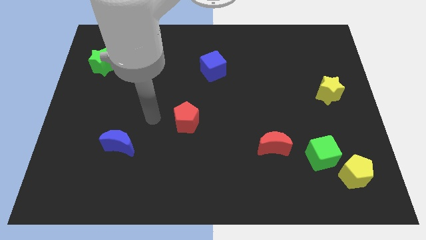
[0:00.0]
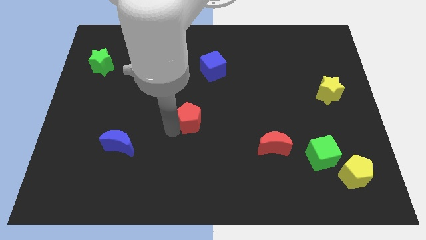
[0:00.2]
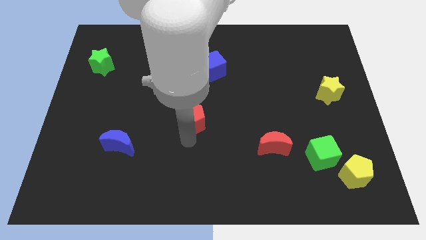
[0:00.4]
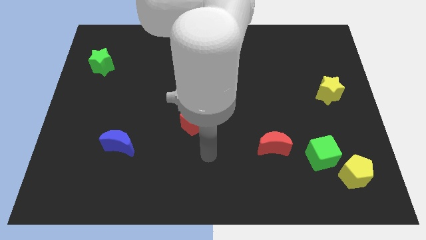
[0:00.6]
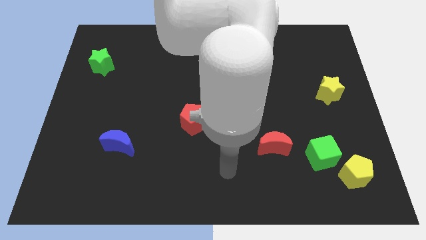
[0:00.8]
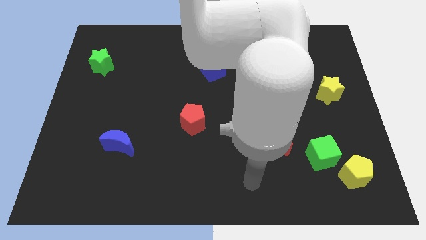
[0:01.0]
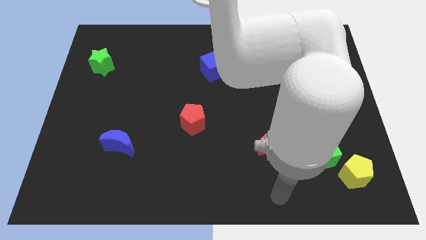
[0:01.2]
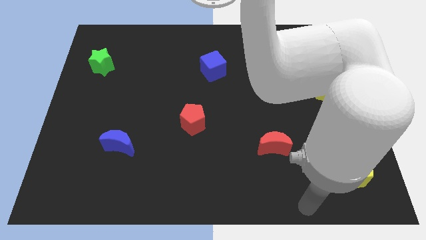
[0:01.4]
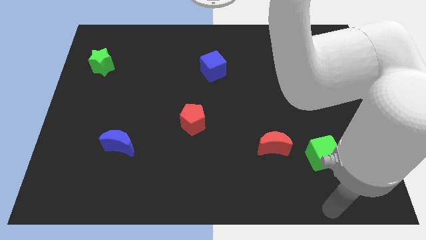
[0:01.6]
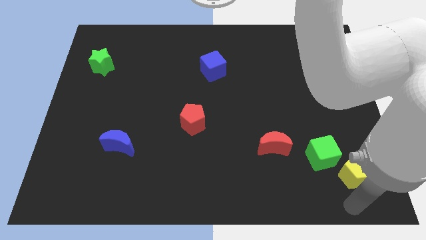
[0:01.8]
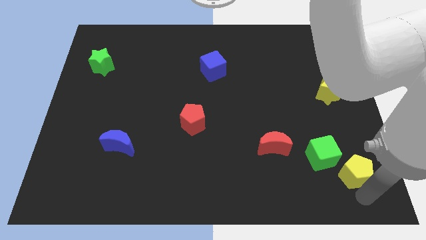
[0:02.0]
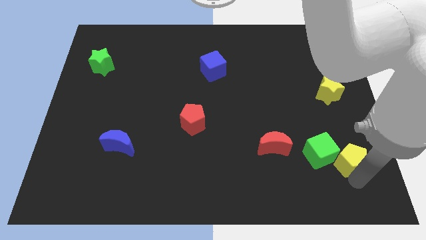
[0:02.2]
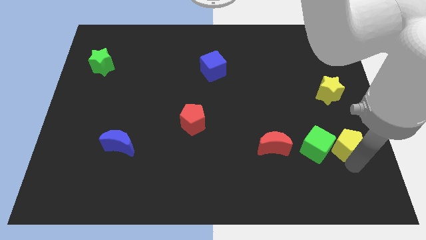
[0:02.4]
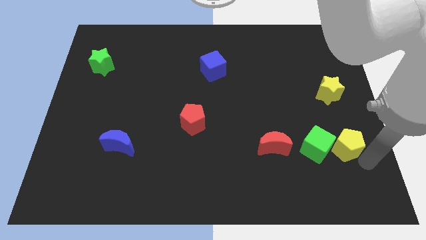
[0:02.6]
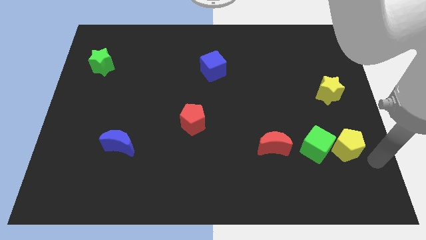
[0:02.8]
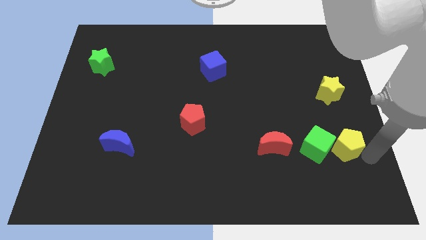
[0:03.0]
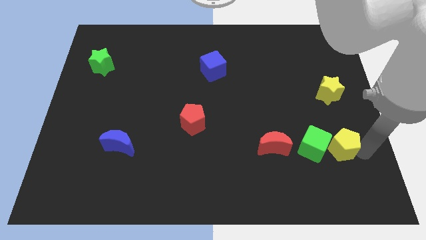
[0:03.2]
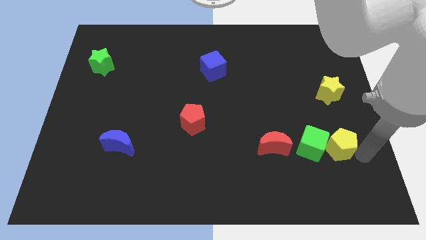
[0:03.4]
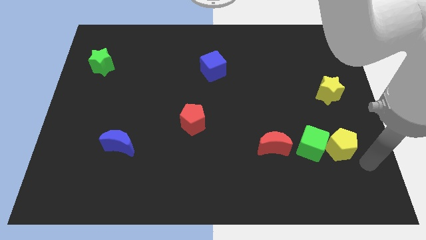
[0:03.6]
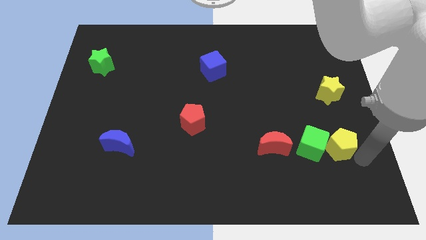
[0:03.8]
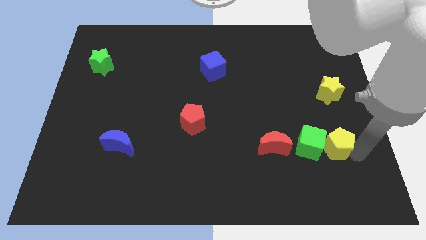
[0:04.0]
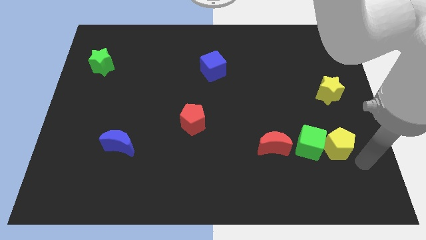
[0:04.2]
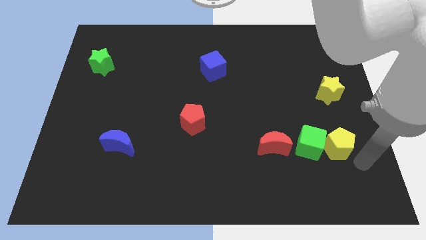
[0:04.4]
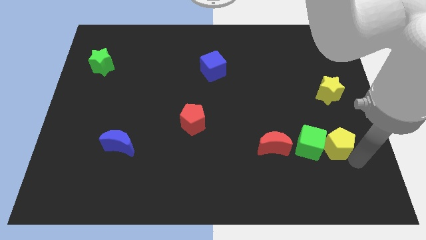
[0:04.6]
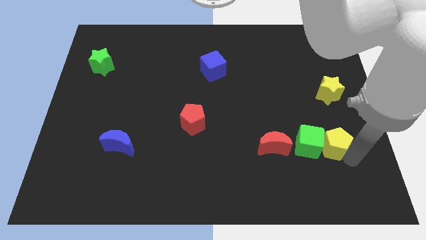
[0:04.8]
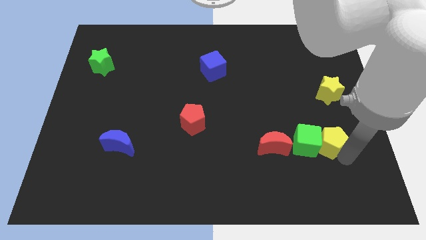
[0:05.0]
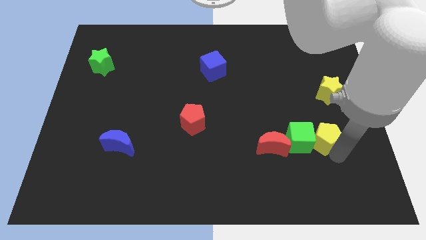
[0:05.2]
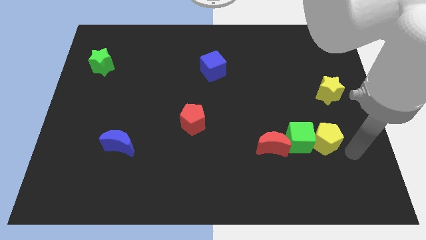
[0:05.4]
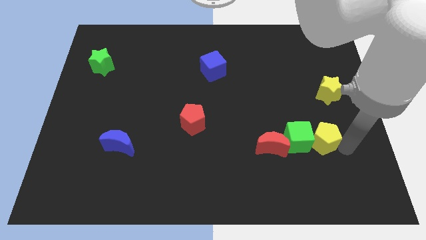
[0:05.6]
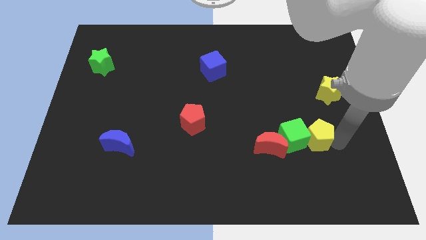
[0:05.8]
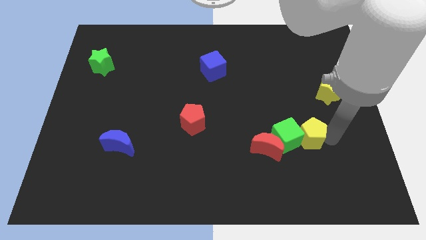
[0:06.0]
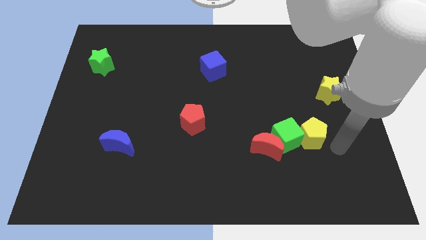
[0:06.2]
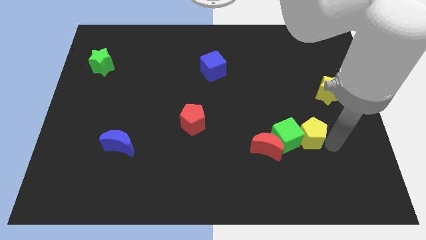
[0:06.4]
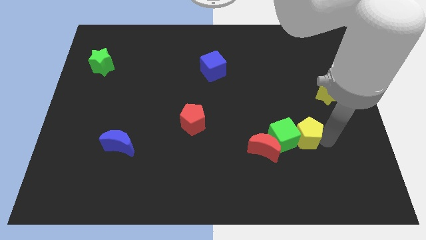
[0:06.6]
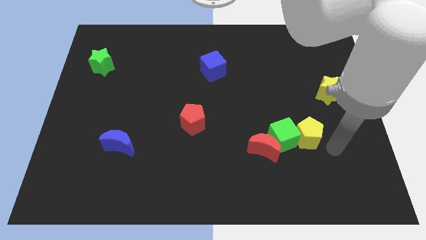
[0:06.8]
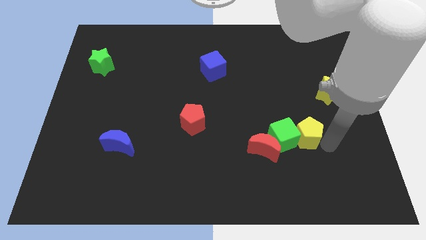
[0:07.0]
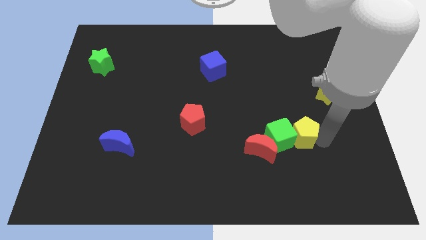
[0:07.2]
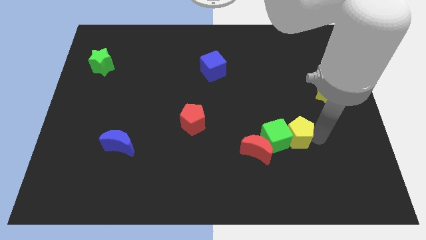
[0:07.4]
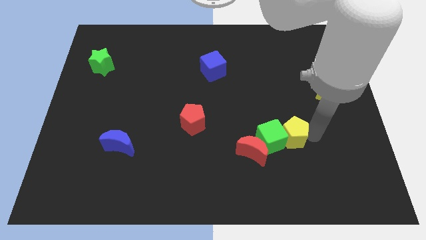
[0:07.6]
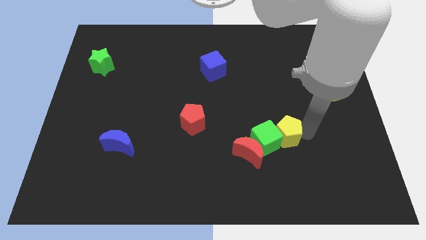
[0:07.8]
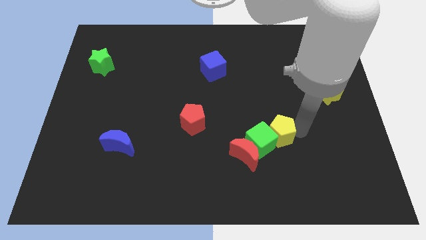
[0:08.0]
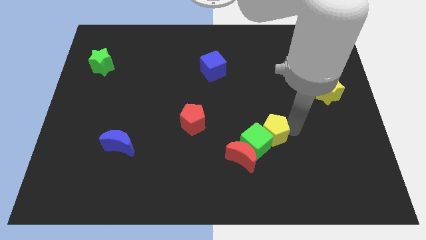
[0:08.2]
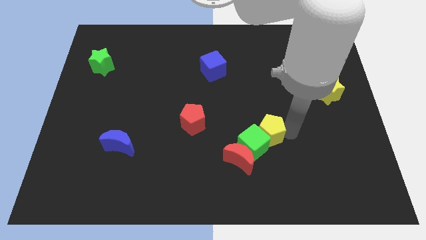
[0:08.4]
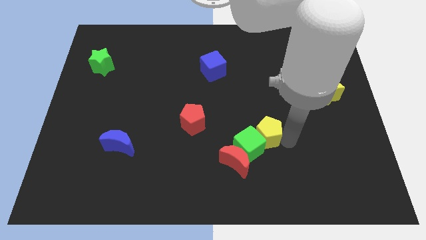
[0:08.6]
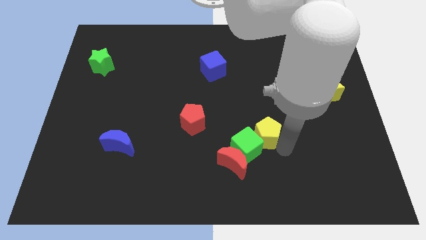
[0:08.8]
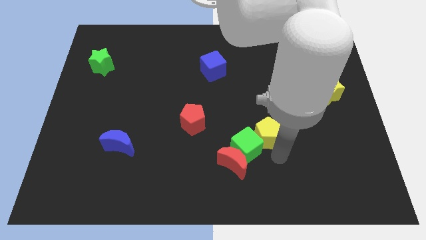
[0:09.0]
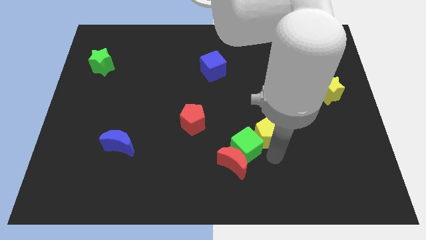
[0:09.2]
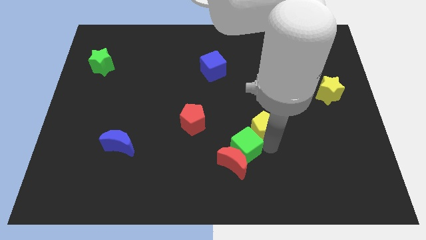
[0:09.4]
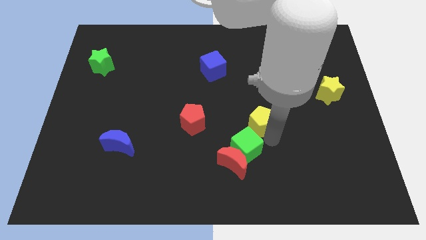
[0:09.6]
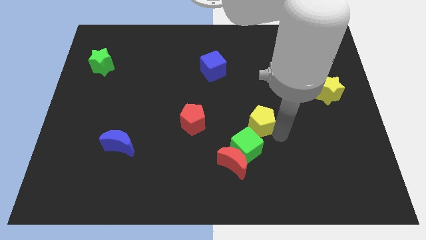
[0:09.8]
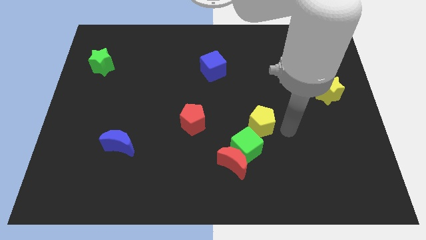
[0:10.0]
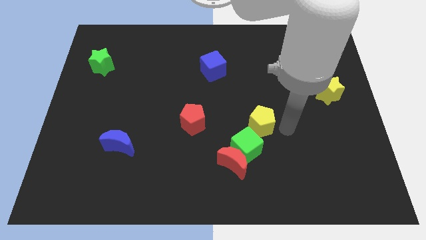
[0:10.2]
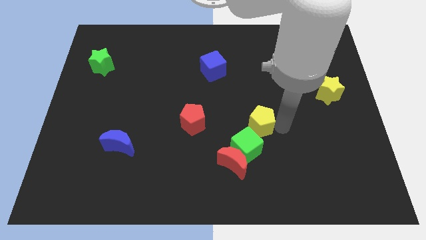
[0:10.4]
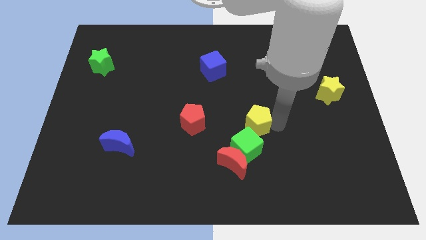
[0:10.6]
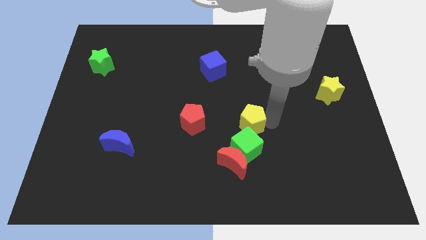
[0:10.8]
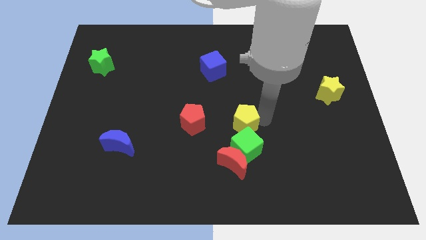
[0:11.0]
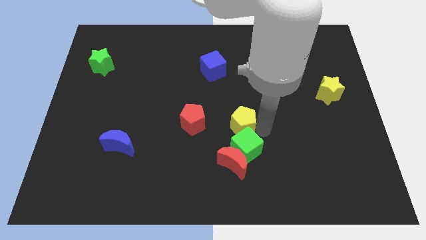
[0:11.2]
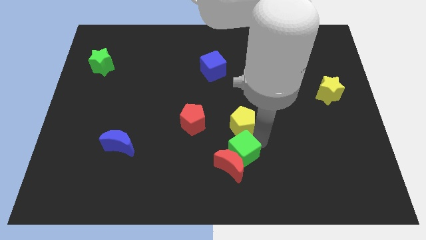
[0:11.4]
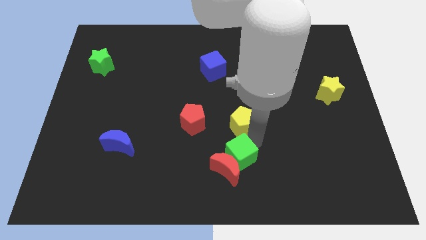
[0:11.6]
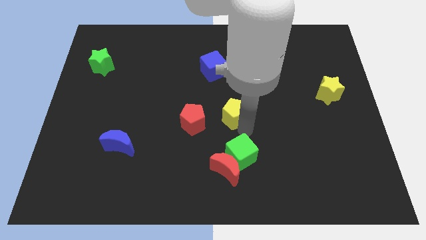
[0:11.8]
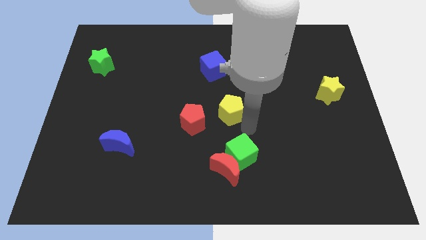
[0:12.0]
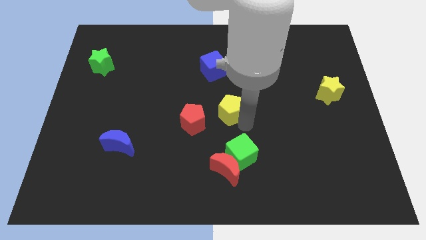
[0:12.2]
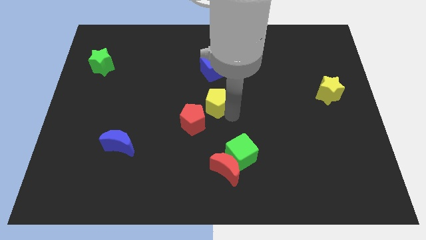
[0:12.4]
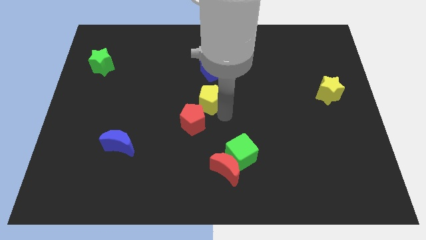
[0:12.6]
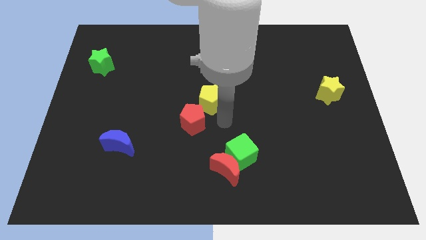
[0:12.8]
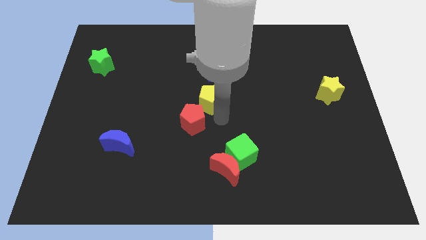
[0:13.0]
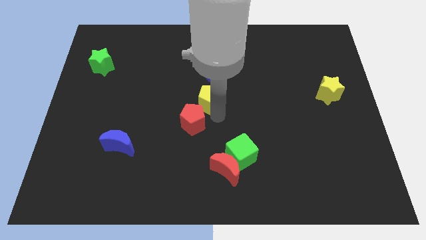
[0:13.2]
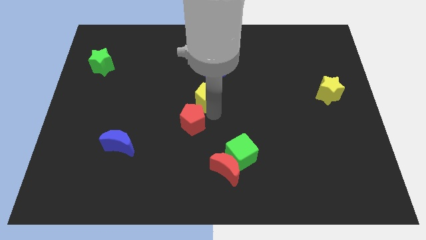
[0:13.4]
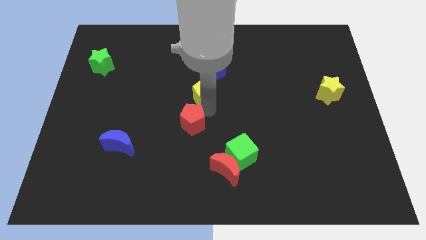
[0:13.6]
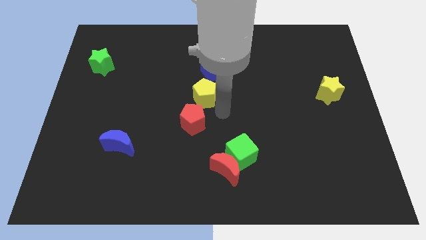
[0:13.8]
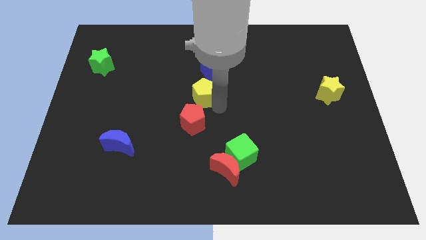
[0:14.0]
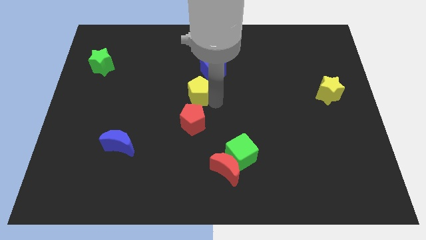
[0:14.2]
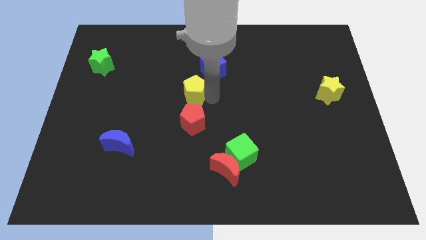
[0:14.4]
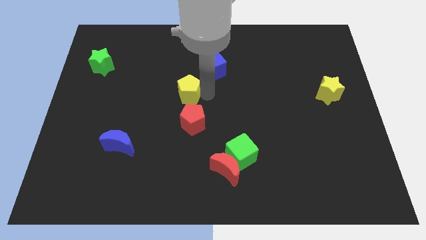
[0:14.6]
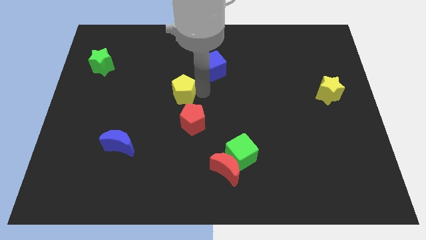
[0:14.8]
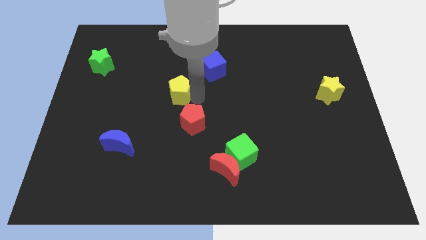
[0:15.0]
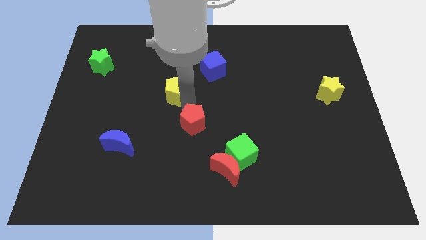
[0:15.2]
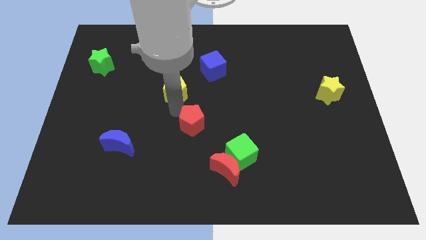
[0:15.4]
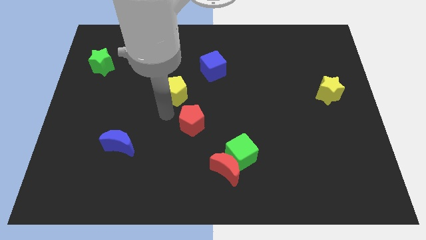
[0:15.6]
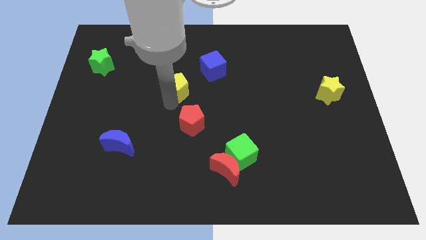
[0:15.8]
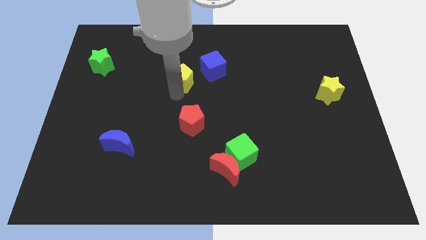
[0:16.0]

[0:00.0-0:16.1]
push the yellow pentagon left of the blue cube
